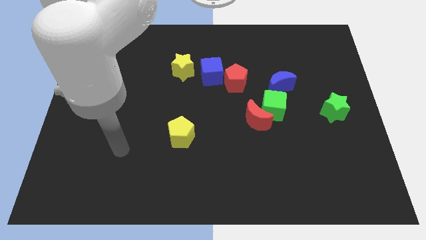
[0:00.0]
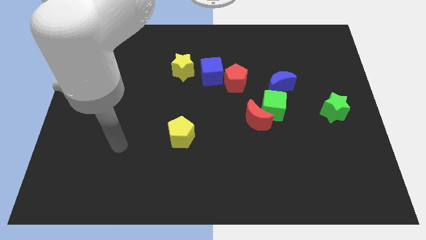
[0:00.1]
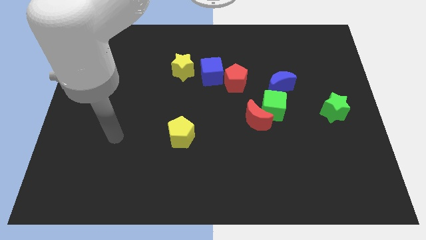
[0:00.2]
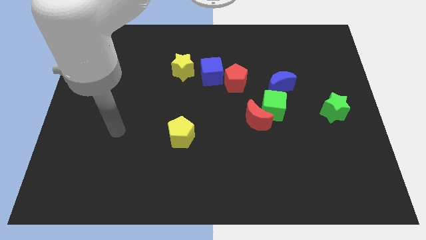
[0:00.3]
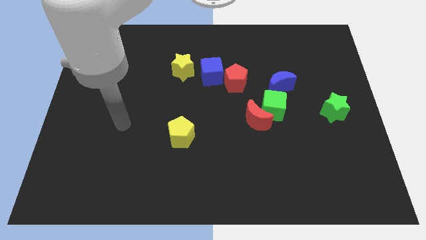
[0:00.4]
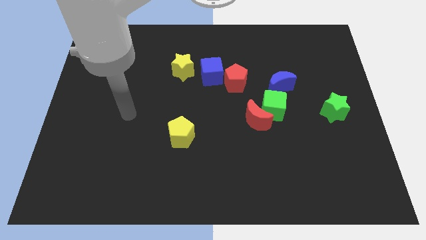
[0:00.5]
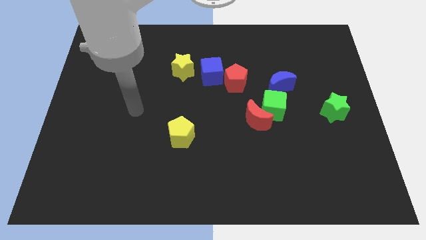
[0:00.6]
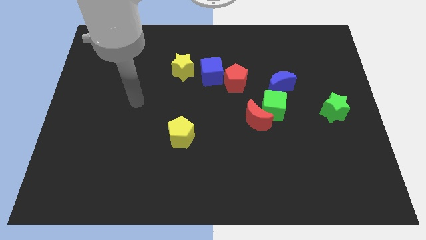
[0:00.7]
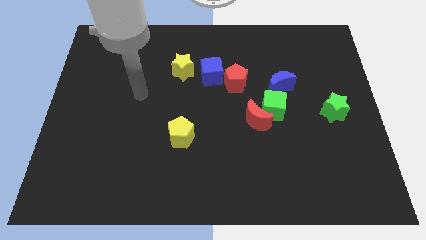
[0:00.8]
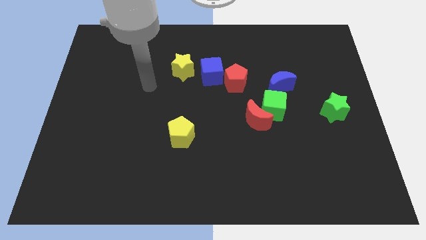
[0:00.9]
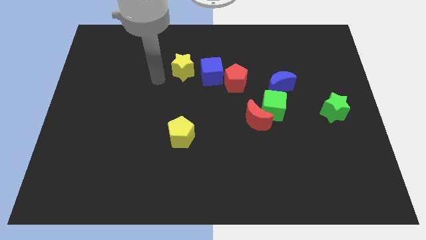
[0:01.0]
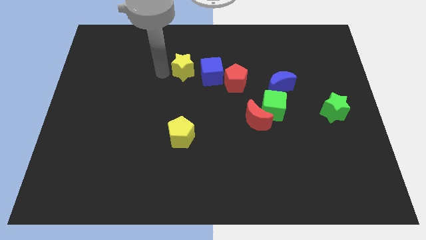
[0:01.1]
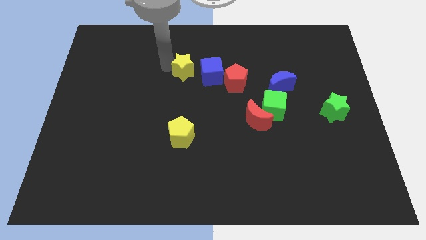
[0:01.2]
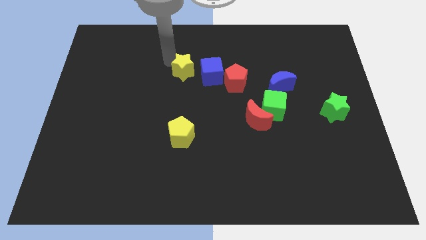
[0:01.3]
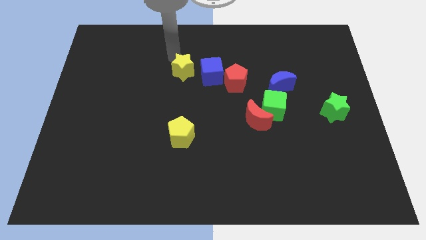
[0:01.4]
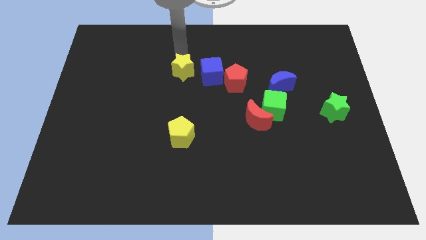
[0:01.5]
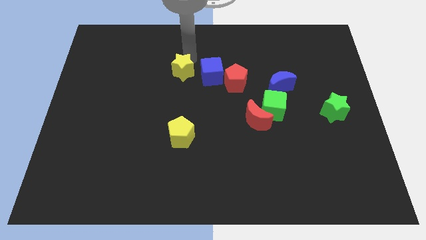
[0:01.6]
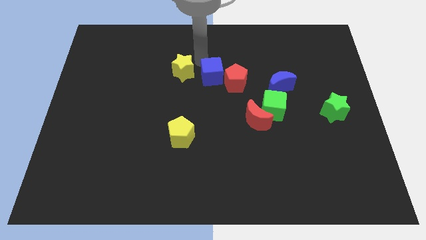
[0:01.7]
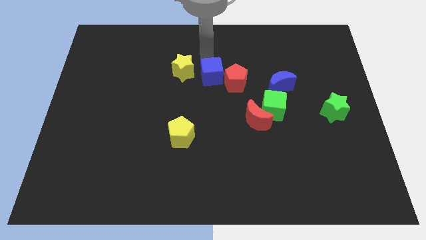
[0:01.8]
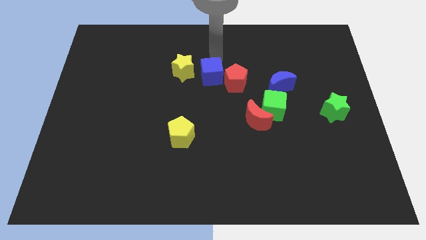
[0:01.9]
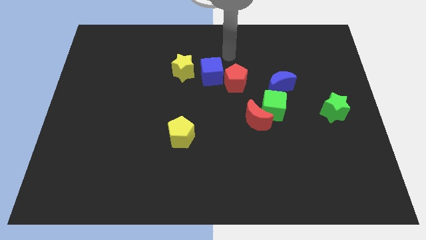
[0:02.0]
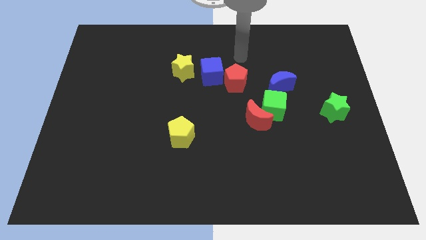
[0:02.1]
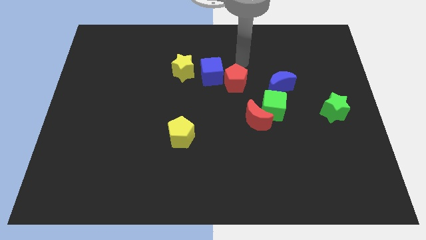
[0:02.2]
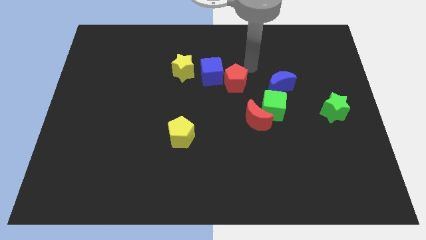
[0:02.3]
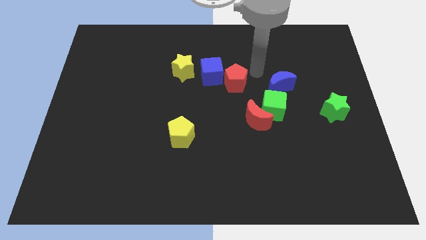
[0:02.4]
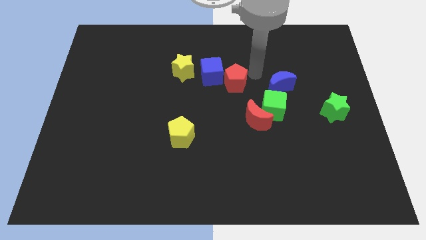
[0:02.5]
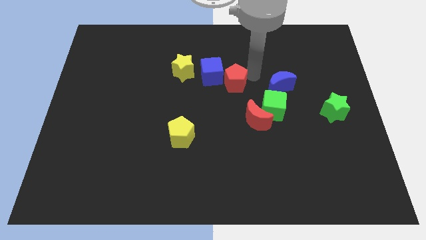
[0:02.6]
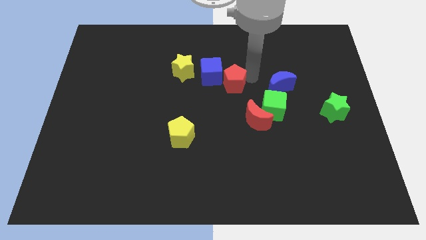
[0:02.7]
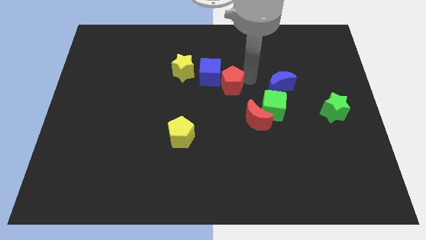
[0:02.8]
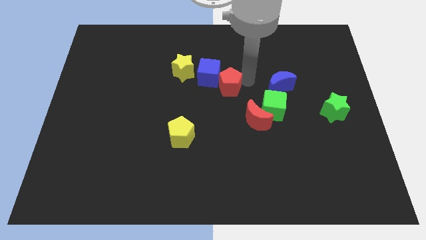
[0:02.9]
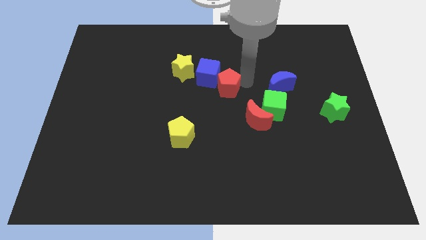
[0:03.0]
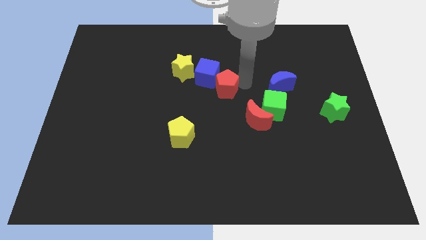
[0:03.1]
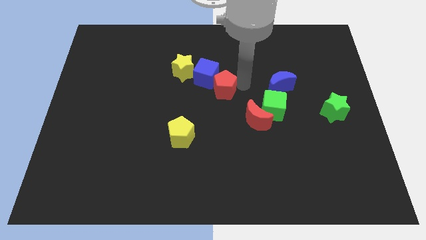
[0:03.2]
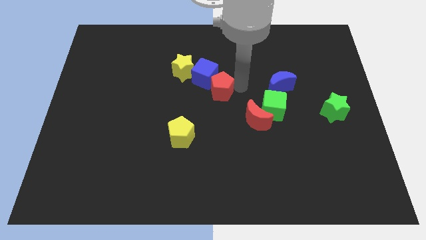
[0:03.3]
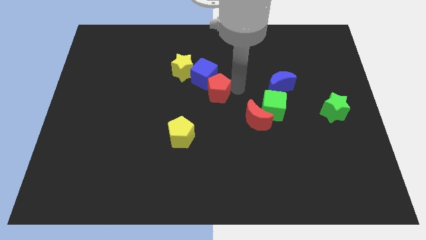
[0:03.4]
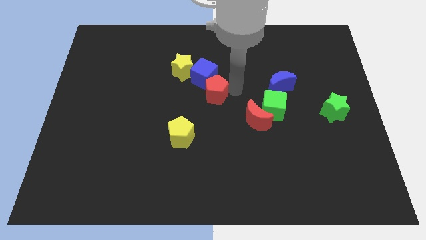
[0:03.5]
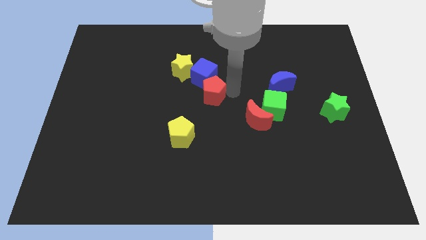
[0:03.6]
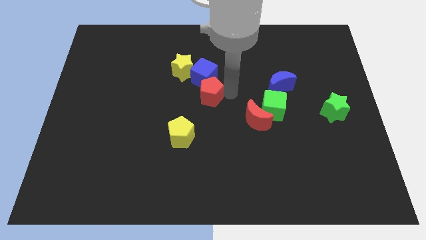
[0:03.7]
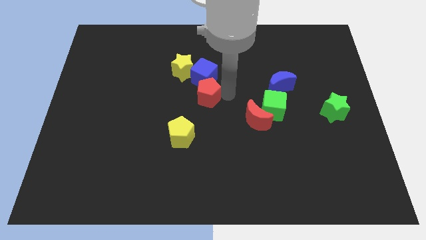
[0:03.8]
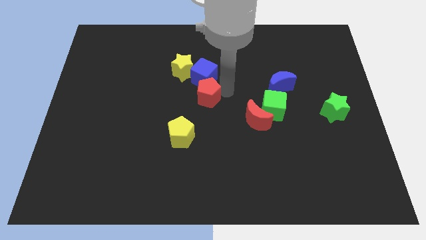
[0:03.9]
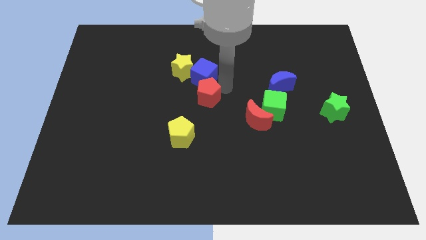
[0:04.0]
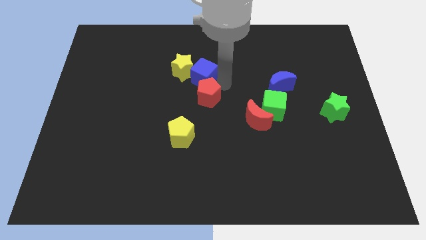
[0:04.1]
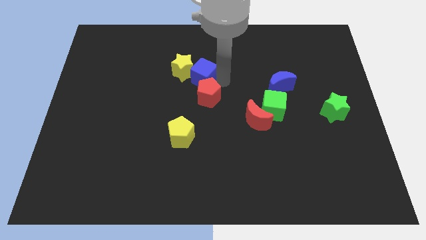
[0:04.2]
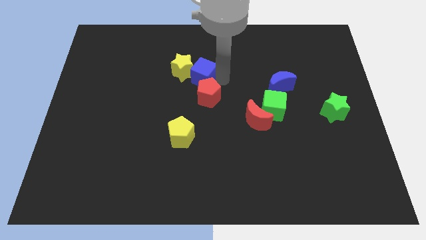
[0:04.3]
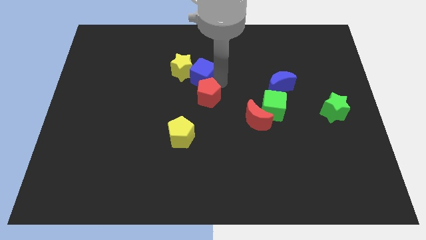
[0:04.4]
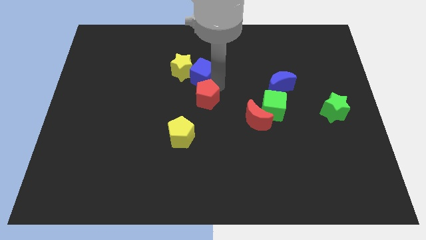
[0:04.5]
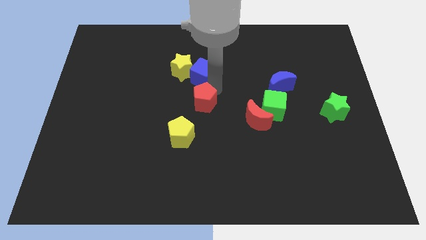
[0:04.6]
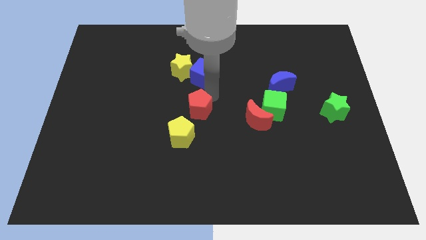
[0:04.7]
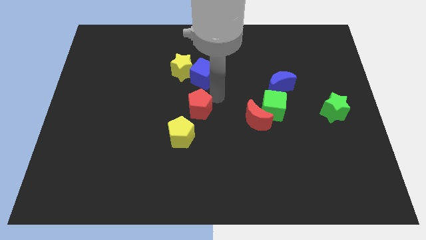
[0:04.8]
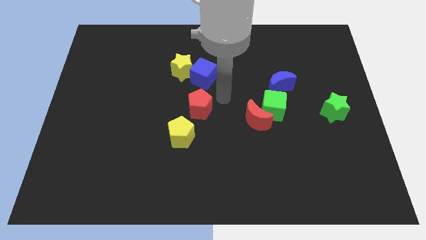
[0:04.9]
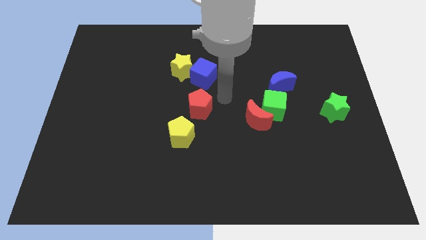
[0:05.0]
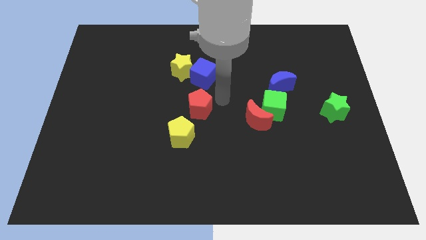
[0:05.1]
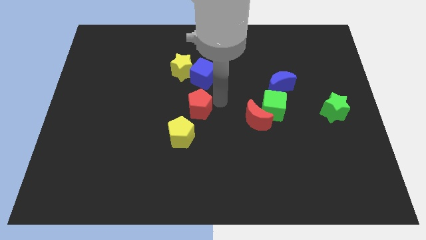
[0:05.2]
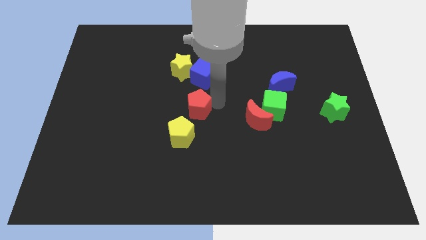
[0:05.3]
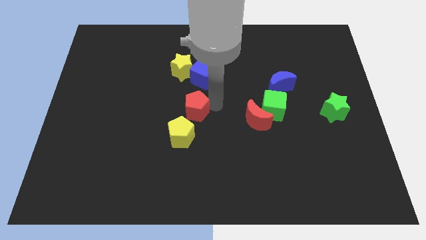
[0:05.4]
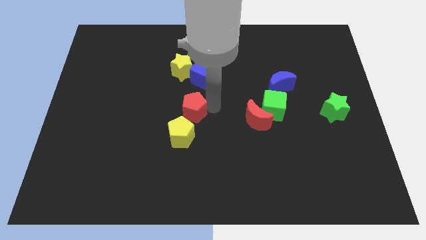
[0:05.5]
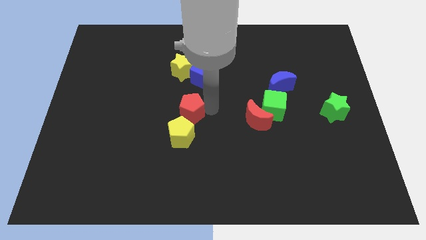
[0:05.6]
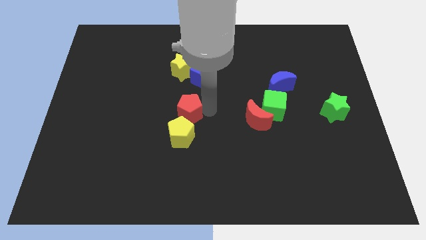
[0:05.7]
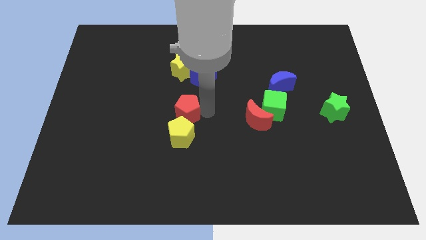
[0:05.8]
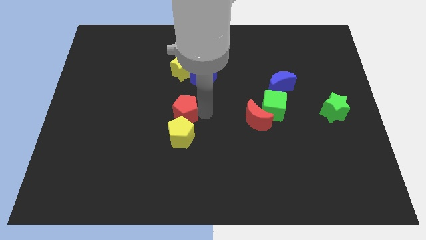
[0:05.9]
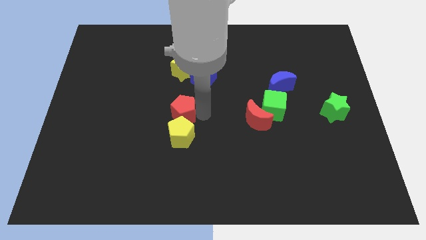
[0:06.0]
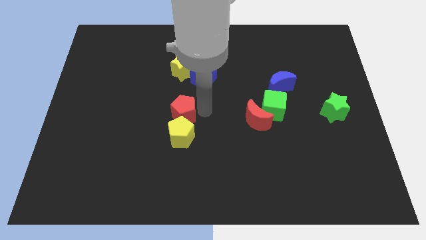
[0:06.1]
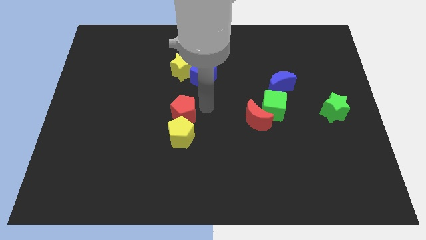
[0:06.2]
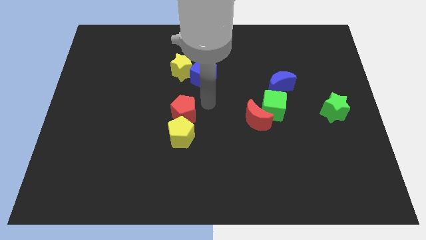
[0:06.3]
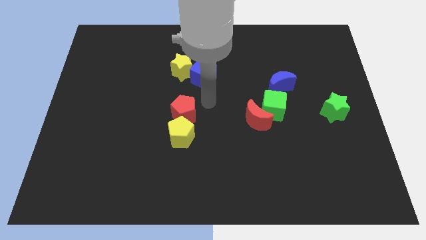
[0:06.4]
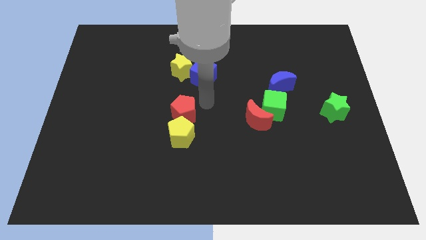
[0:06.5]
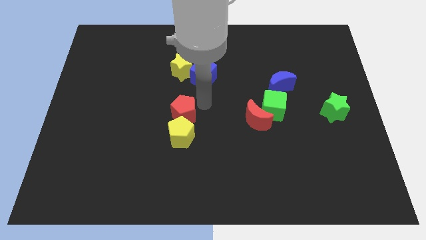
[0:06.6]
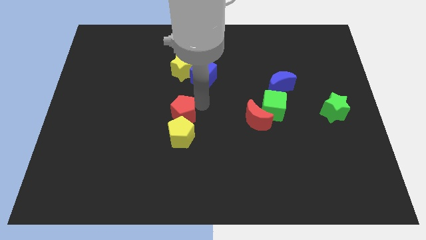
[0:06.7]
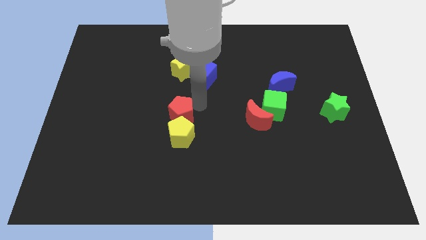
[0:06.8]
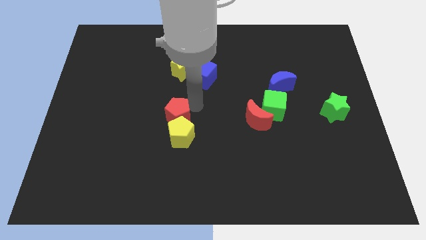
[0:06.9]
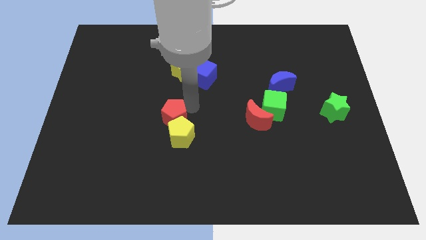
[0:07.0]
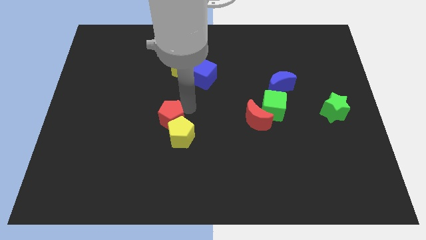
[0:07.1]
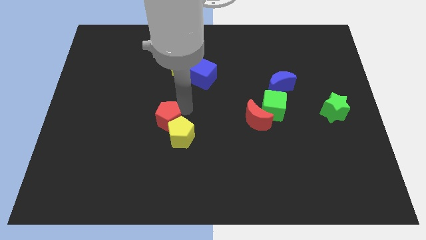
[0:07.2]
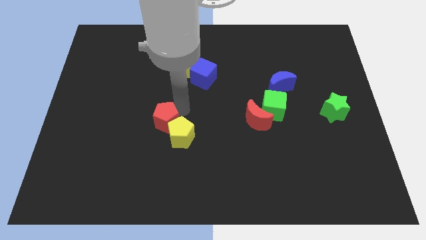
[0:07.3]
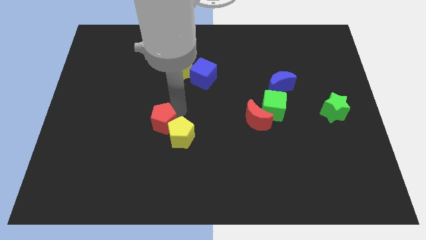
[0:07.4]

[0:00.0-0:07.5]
move the red pentagon diagonally downwards and left

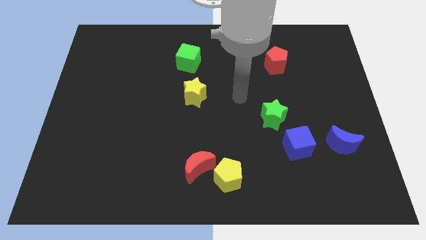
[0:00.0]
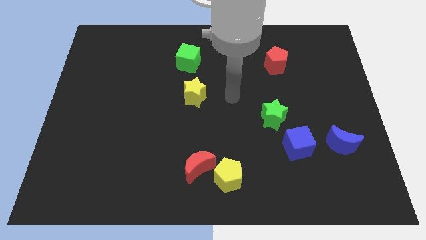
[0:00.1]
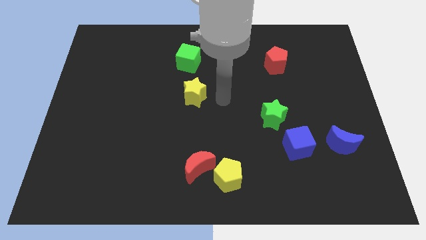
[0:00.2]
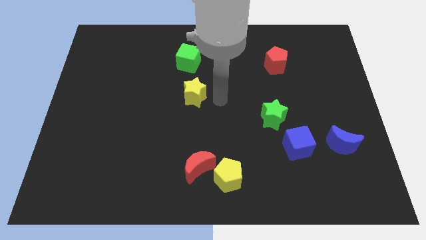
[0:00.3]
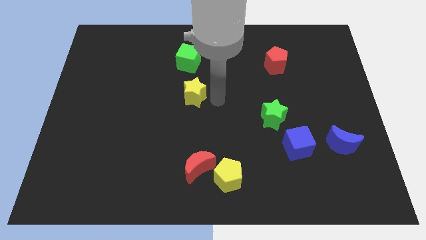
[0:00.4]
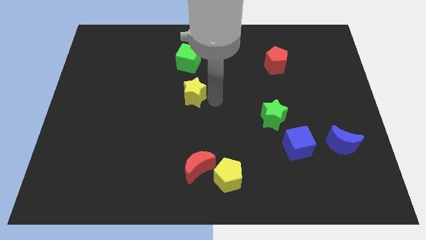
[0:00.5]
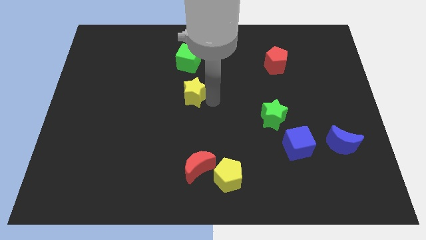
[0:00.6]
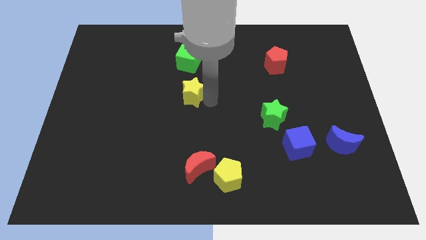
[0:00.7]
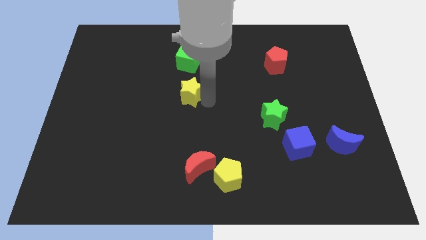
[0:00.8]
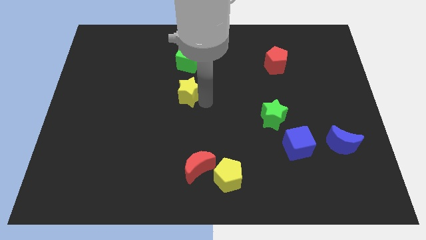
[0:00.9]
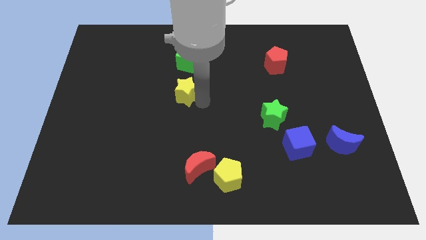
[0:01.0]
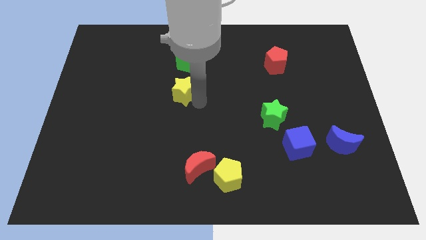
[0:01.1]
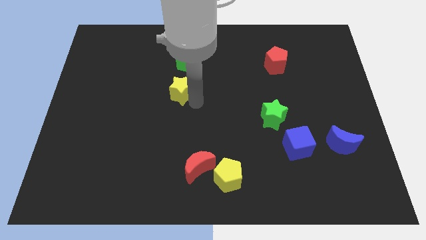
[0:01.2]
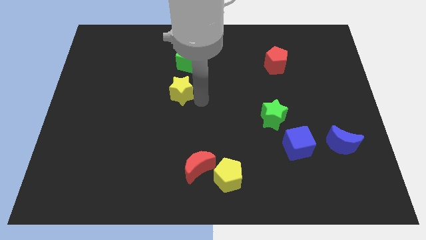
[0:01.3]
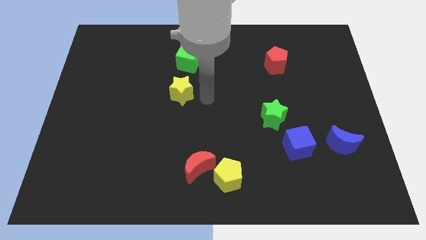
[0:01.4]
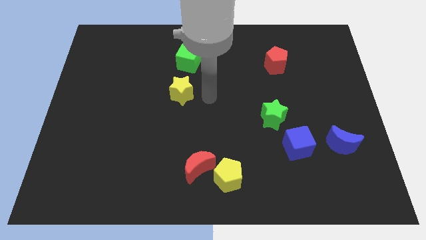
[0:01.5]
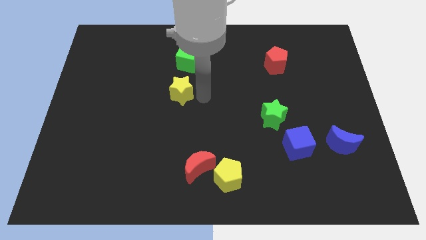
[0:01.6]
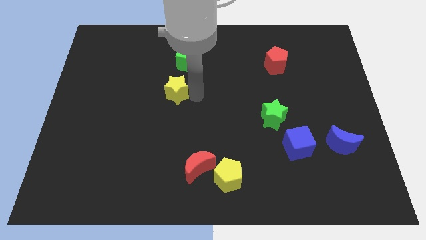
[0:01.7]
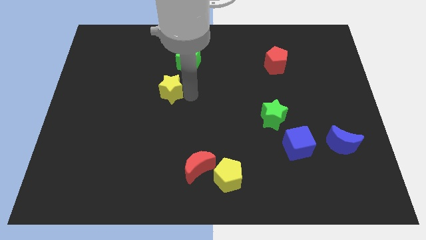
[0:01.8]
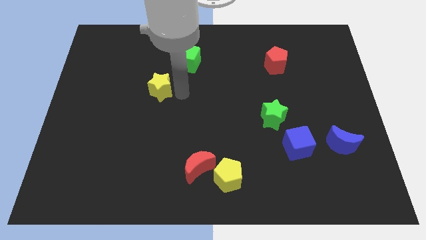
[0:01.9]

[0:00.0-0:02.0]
move the yellow star left a little
